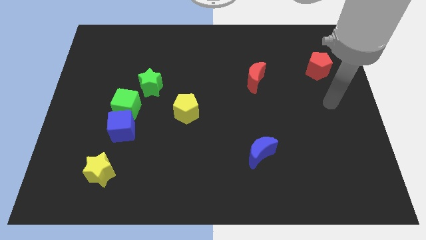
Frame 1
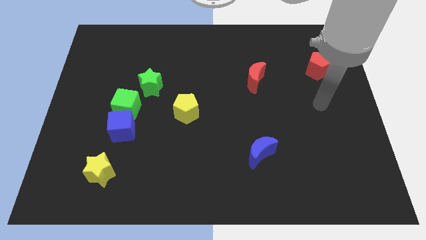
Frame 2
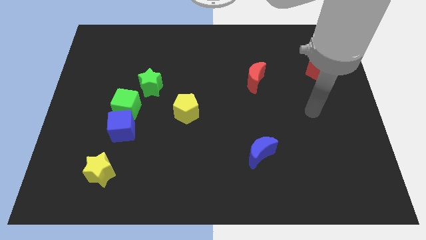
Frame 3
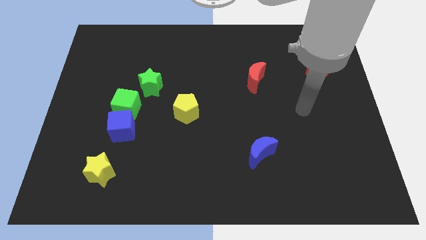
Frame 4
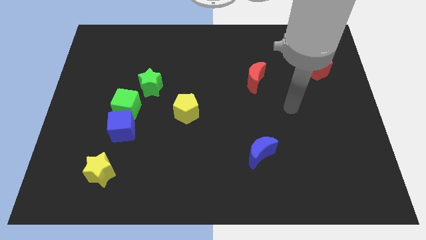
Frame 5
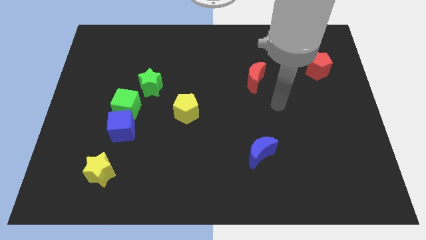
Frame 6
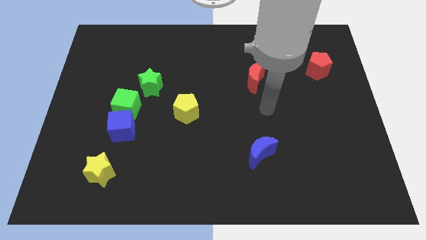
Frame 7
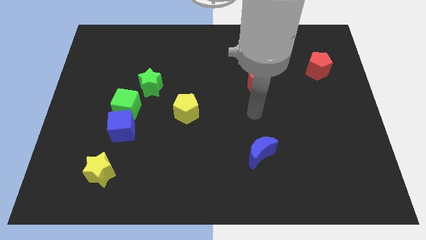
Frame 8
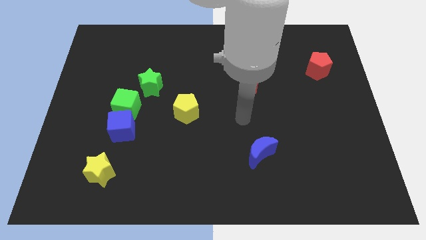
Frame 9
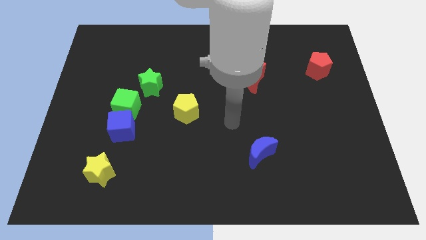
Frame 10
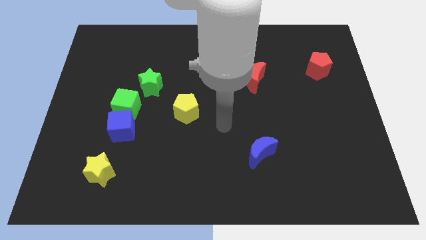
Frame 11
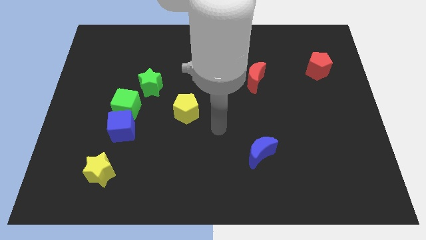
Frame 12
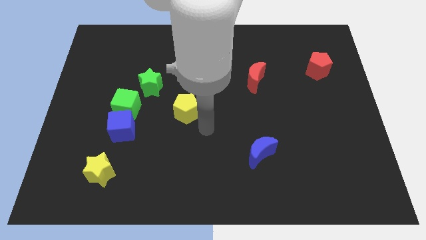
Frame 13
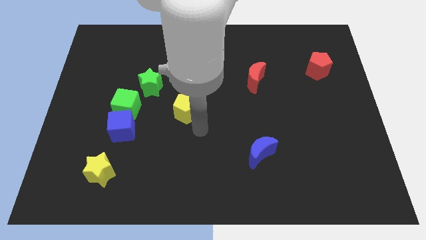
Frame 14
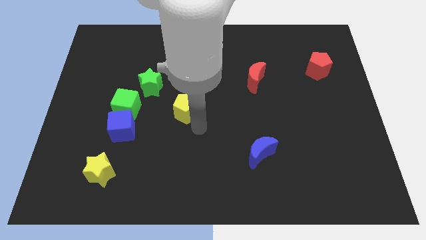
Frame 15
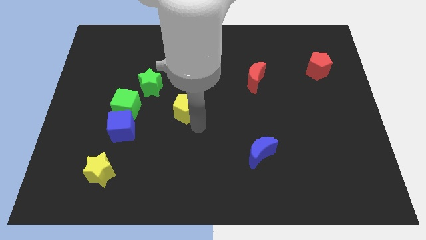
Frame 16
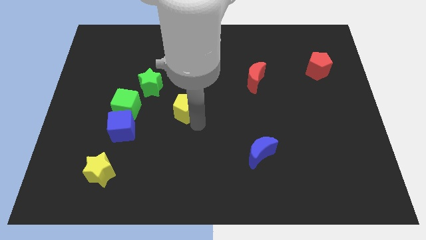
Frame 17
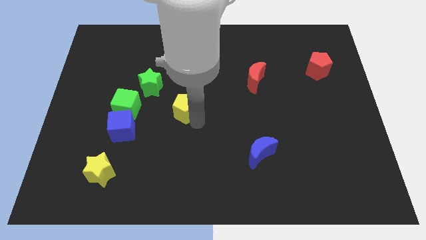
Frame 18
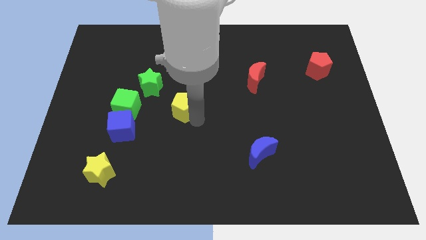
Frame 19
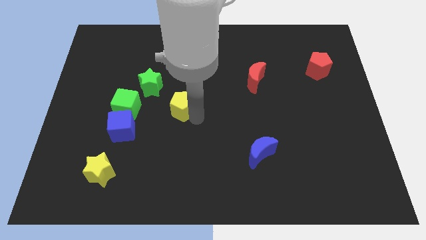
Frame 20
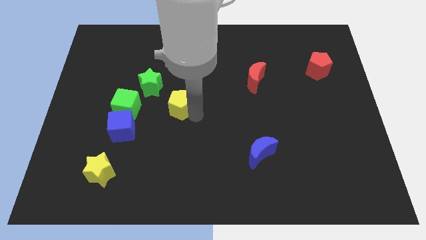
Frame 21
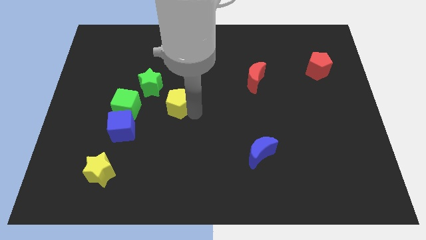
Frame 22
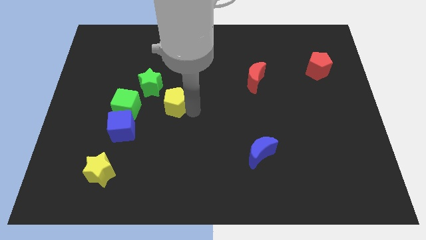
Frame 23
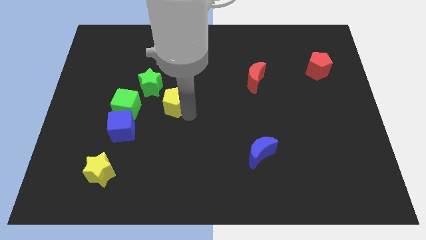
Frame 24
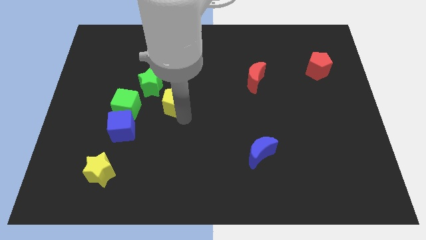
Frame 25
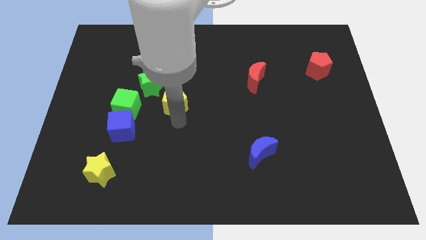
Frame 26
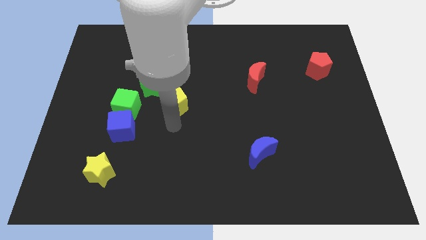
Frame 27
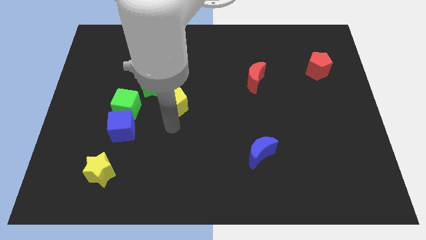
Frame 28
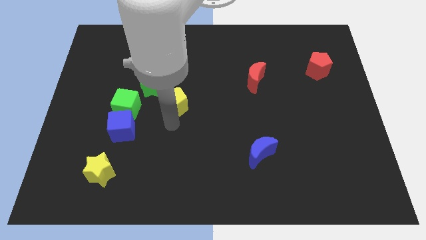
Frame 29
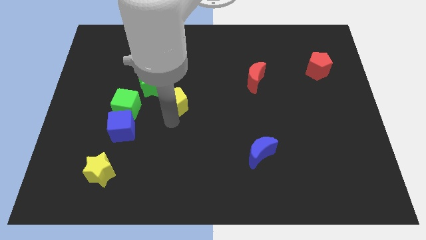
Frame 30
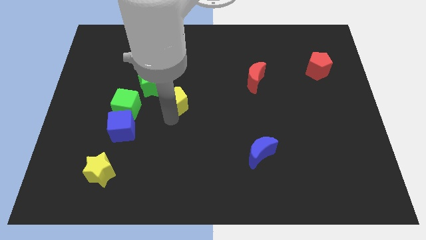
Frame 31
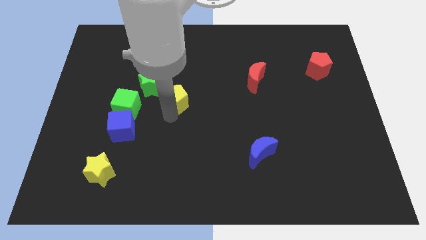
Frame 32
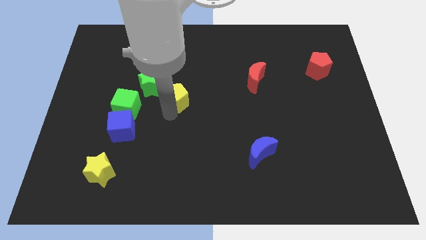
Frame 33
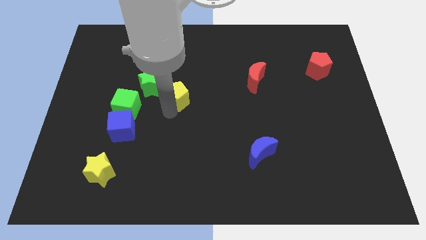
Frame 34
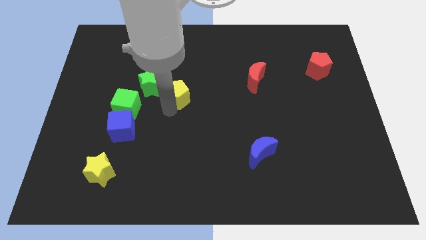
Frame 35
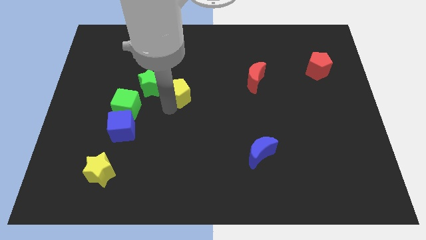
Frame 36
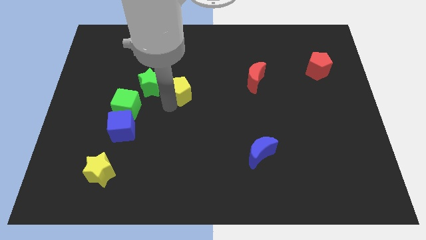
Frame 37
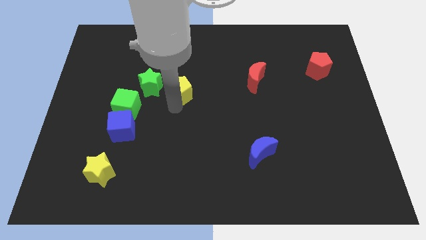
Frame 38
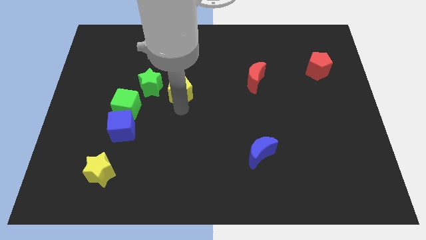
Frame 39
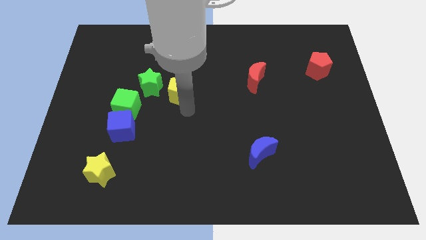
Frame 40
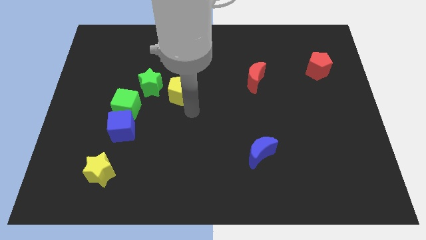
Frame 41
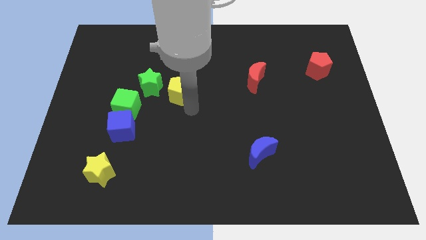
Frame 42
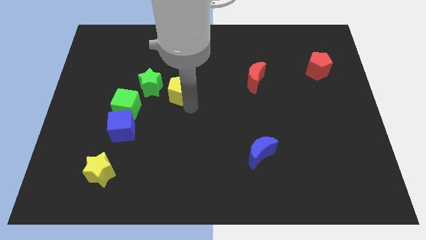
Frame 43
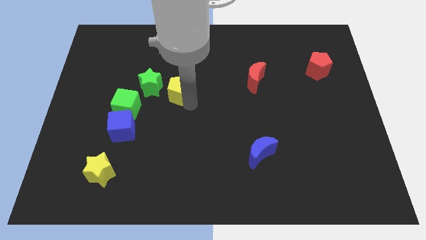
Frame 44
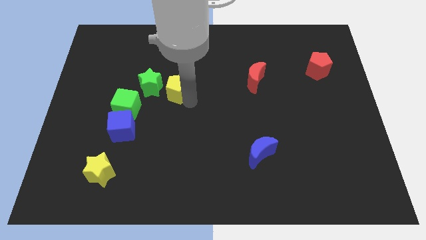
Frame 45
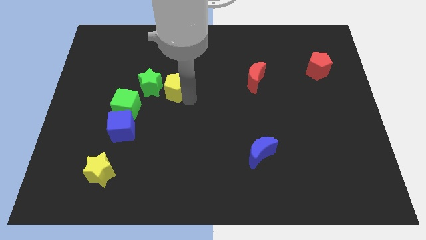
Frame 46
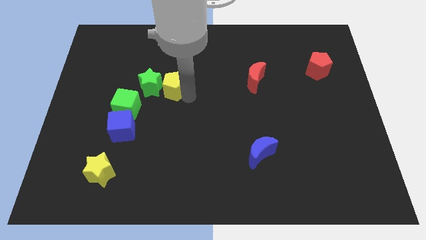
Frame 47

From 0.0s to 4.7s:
slide the yellow pentagon up and left diagonally a little

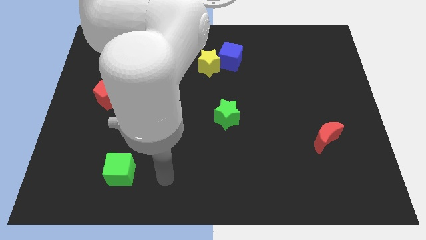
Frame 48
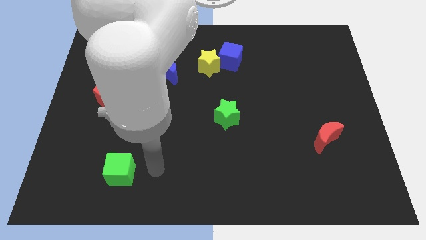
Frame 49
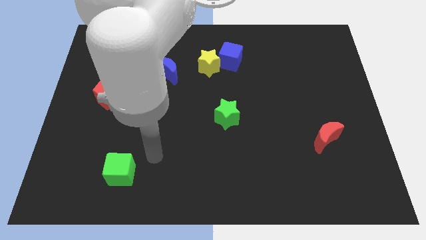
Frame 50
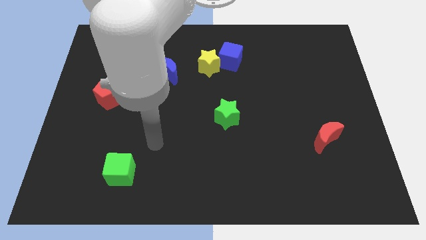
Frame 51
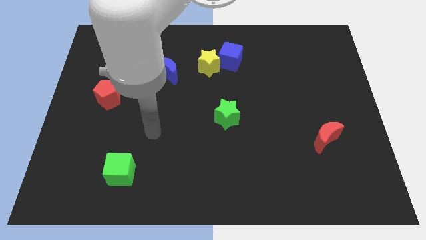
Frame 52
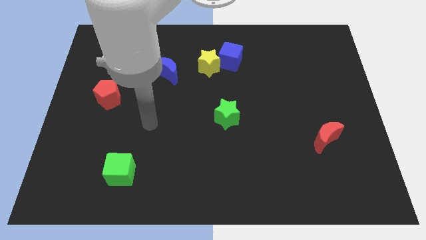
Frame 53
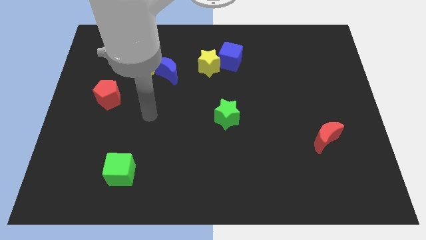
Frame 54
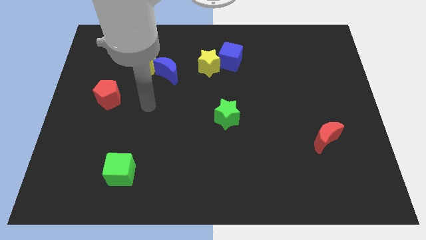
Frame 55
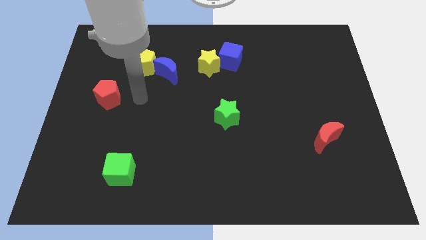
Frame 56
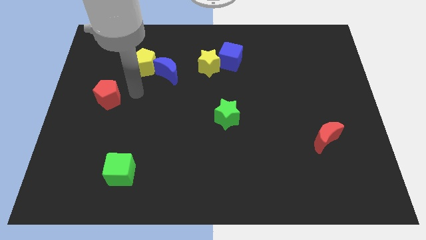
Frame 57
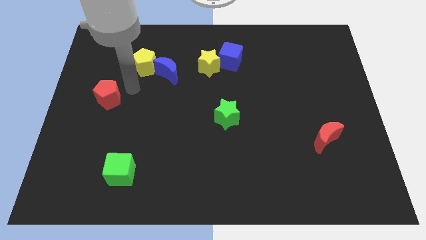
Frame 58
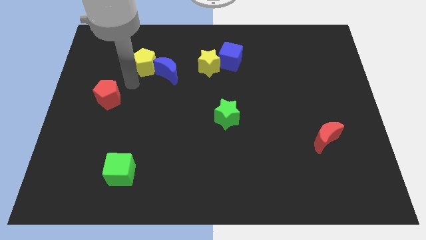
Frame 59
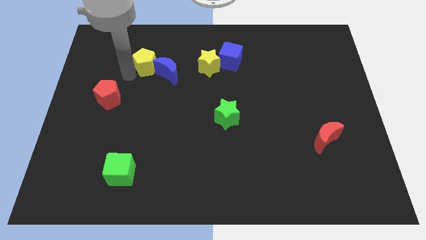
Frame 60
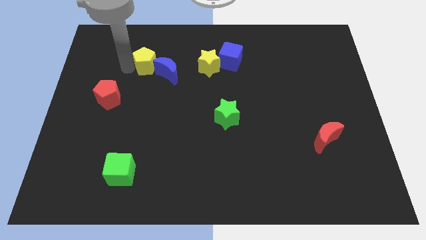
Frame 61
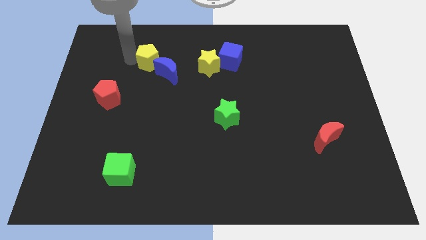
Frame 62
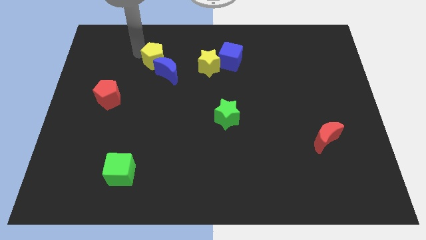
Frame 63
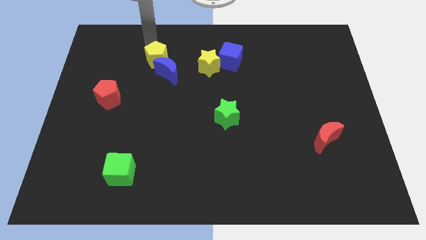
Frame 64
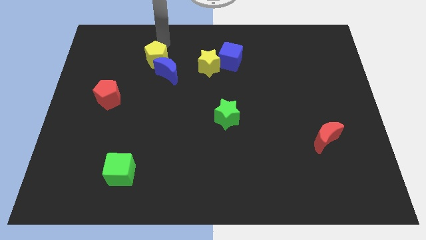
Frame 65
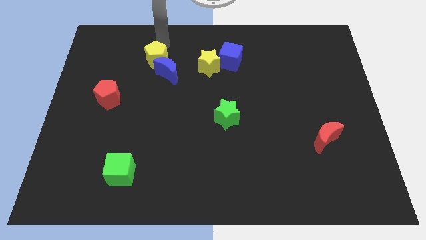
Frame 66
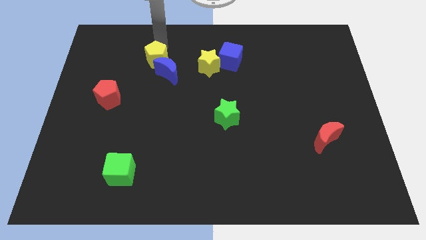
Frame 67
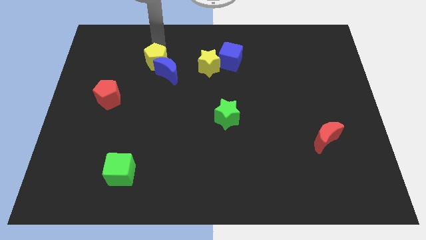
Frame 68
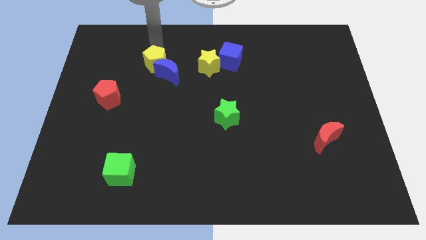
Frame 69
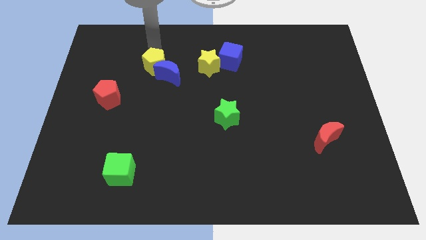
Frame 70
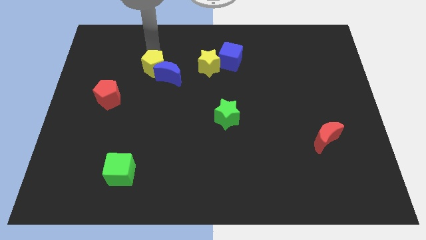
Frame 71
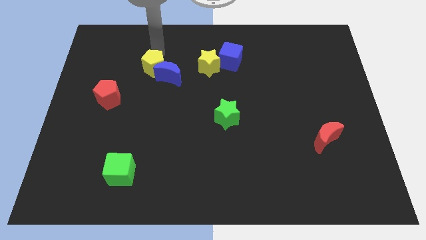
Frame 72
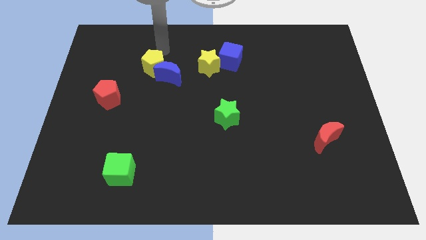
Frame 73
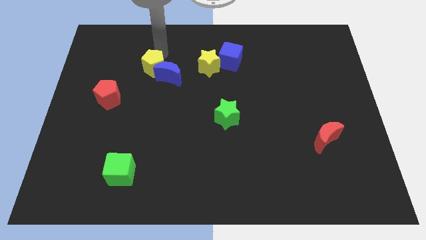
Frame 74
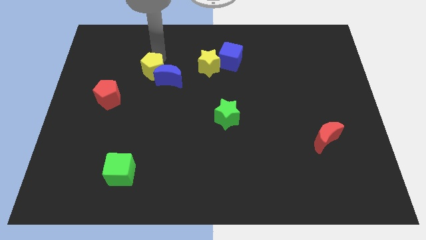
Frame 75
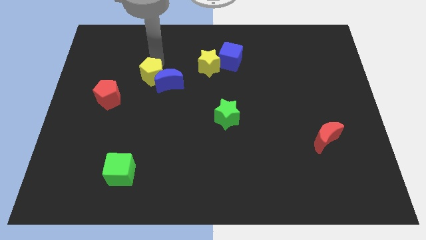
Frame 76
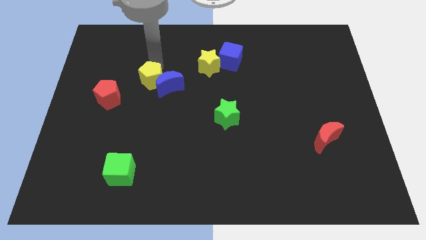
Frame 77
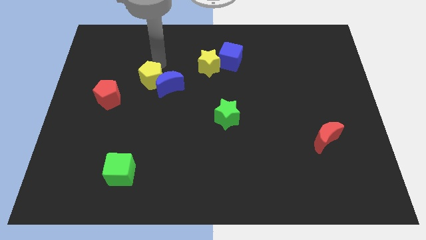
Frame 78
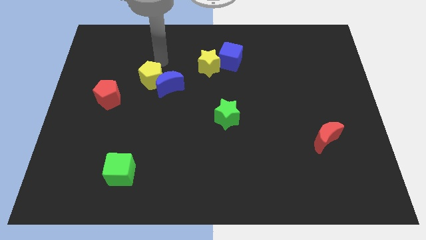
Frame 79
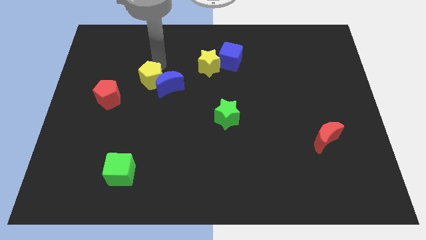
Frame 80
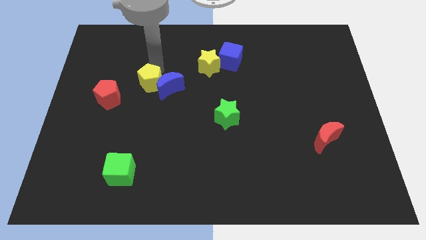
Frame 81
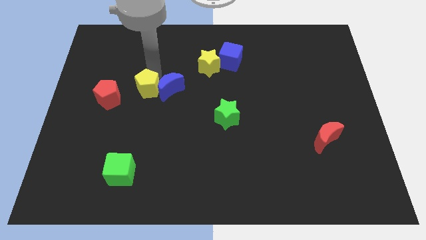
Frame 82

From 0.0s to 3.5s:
slightly move the yellow pentagon downwards
